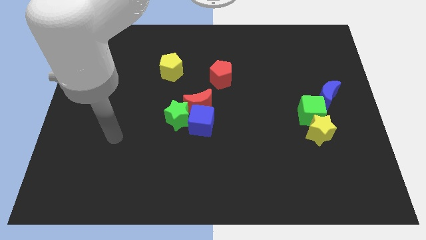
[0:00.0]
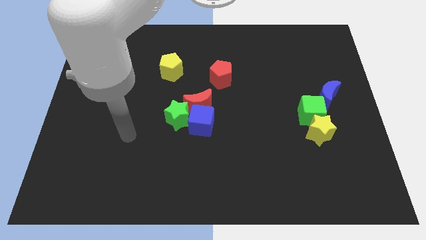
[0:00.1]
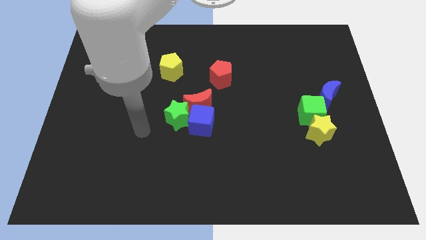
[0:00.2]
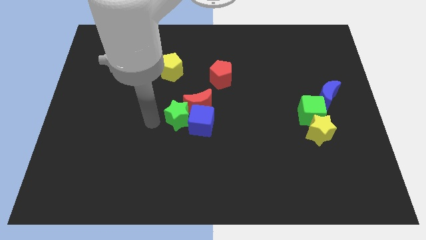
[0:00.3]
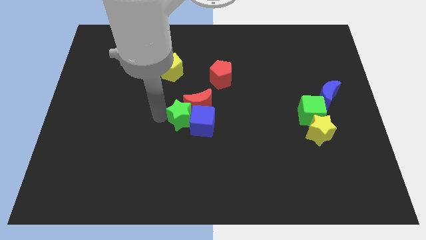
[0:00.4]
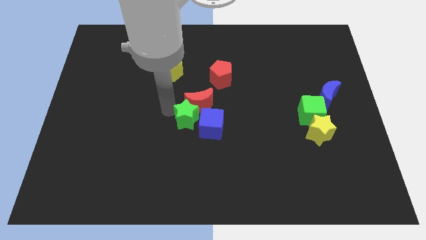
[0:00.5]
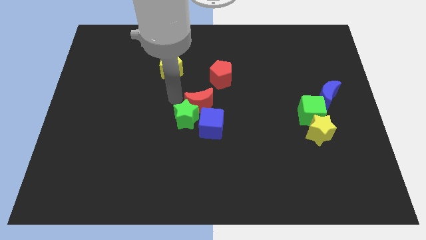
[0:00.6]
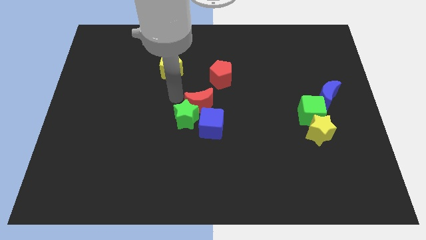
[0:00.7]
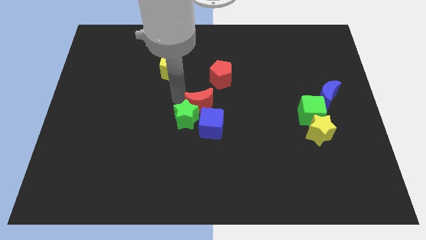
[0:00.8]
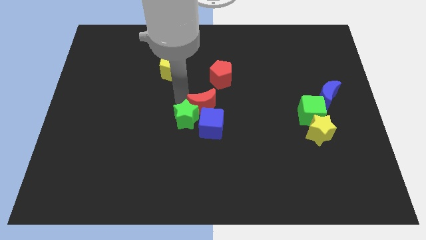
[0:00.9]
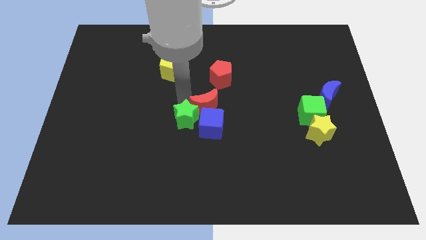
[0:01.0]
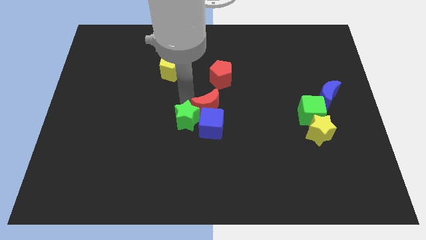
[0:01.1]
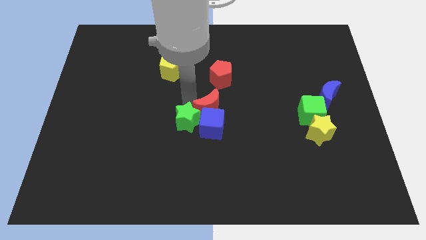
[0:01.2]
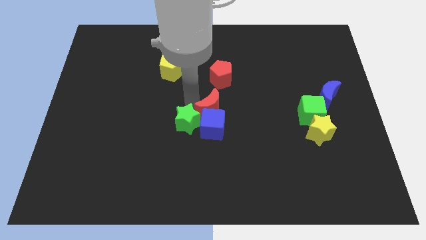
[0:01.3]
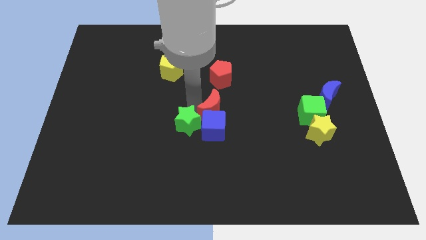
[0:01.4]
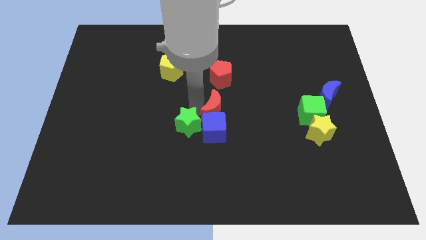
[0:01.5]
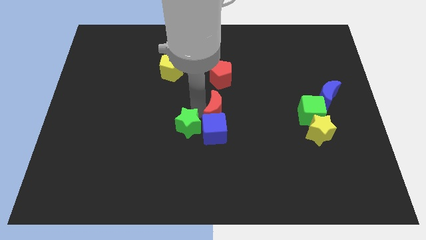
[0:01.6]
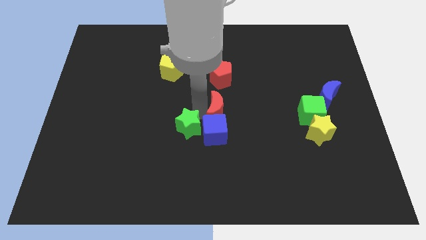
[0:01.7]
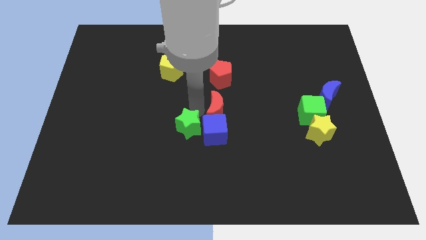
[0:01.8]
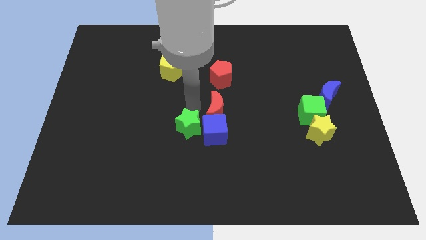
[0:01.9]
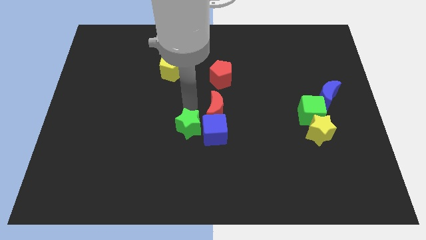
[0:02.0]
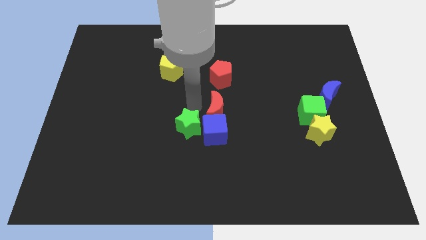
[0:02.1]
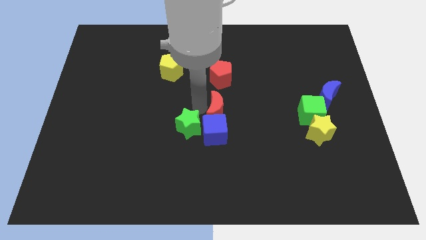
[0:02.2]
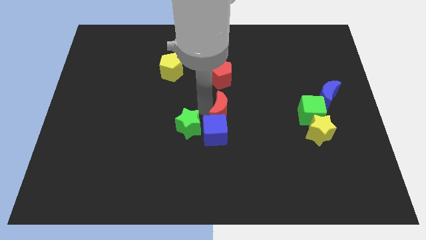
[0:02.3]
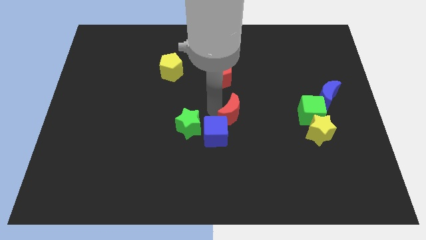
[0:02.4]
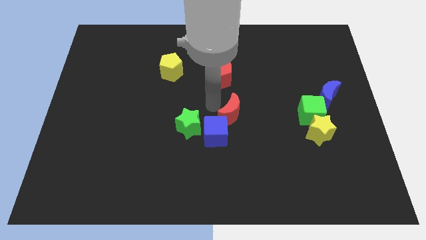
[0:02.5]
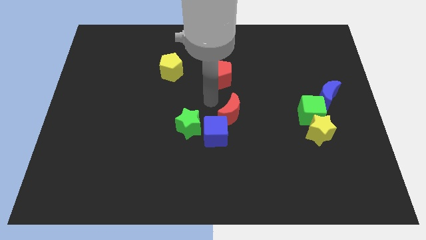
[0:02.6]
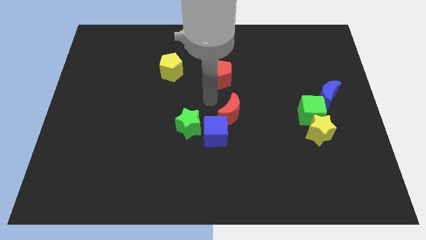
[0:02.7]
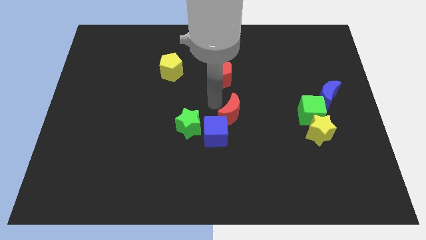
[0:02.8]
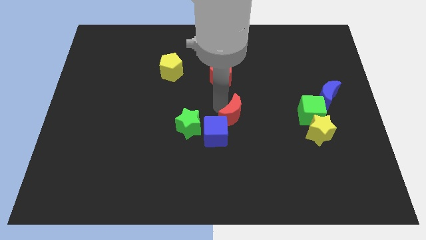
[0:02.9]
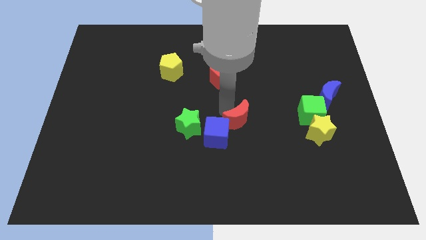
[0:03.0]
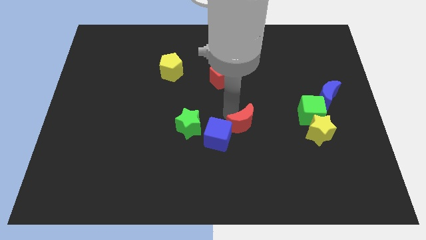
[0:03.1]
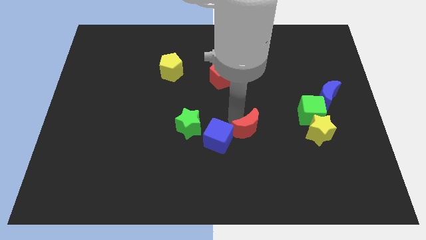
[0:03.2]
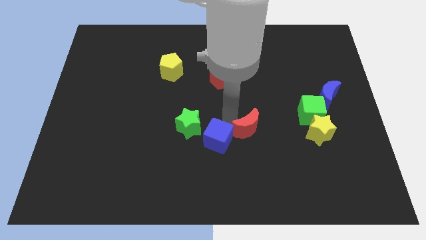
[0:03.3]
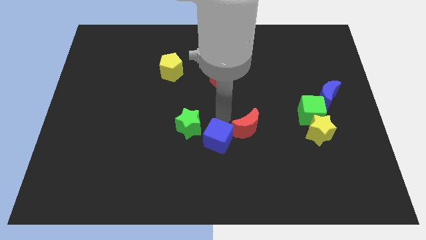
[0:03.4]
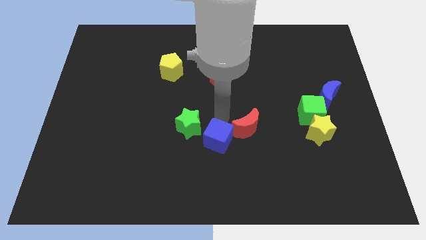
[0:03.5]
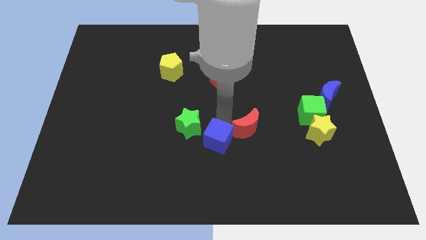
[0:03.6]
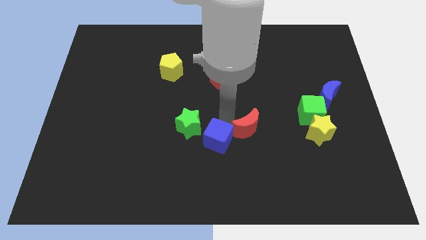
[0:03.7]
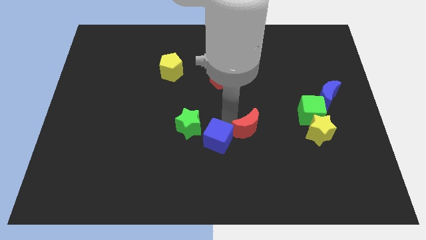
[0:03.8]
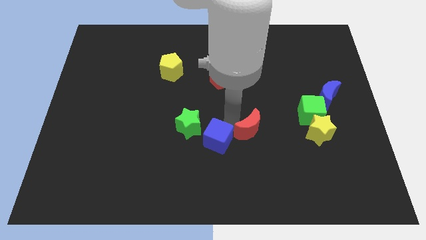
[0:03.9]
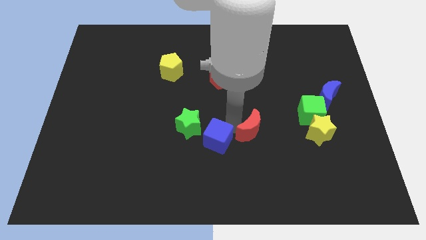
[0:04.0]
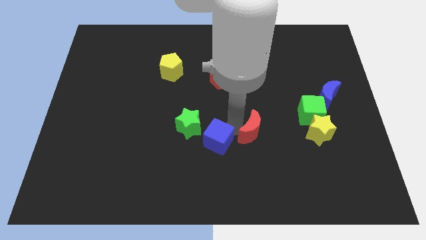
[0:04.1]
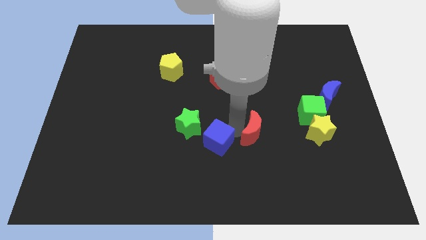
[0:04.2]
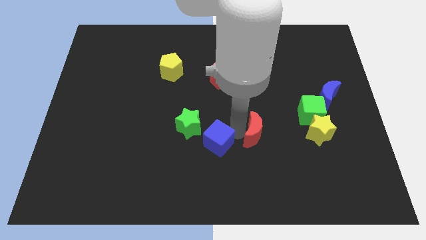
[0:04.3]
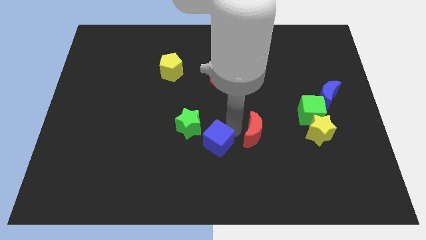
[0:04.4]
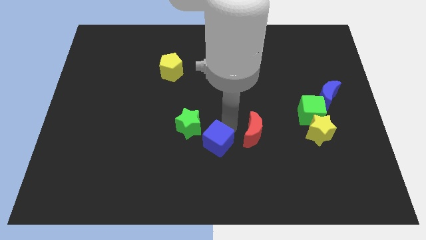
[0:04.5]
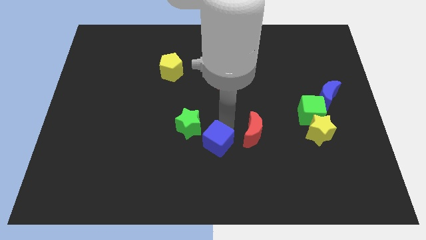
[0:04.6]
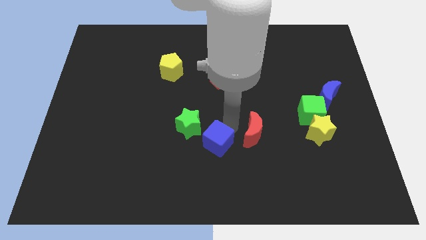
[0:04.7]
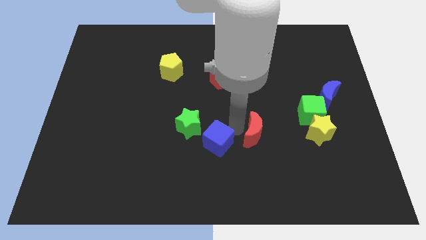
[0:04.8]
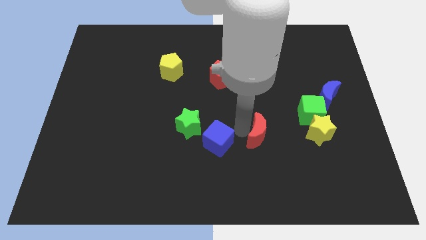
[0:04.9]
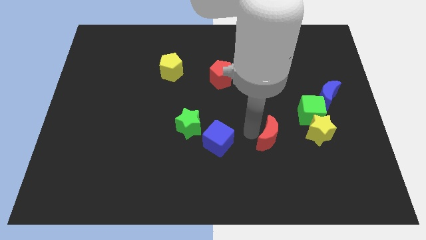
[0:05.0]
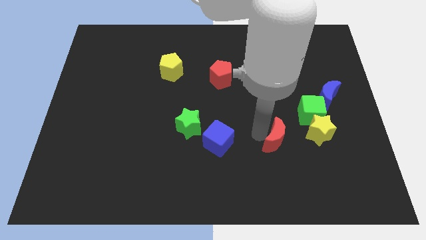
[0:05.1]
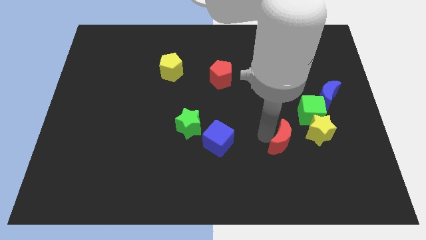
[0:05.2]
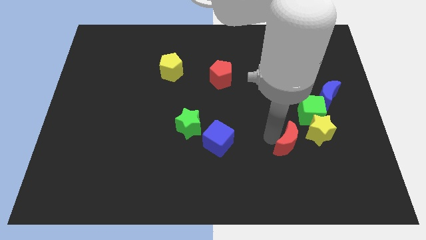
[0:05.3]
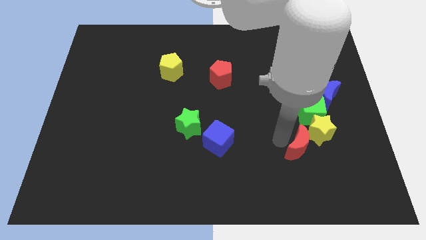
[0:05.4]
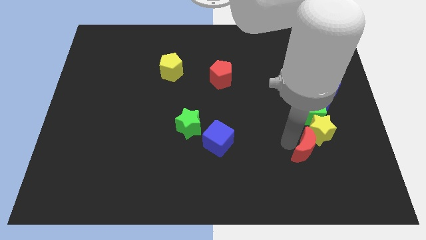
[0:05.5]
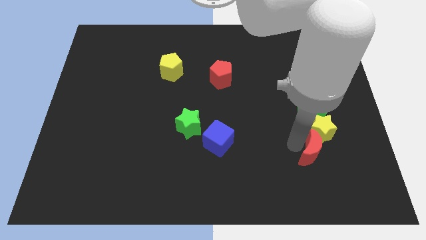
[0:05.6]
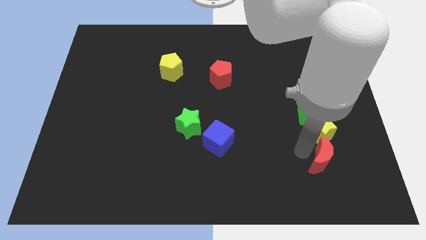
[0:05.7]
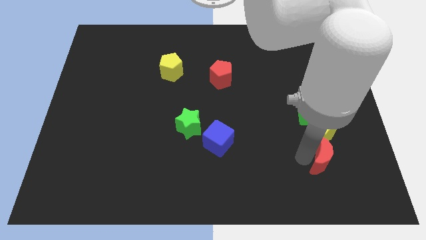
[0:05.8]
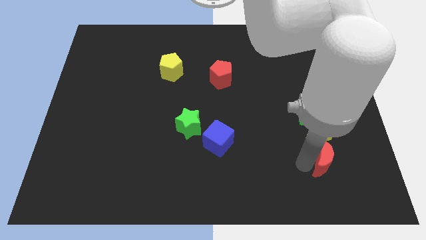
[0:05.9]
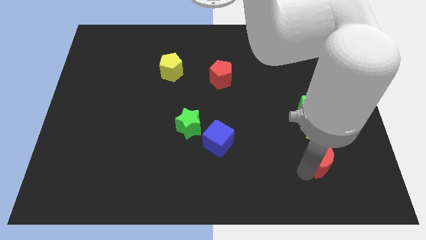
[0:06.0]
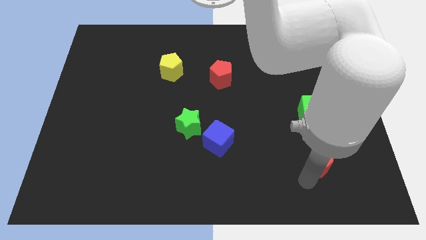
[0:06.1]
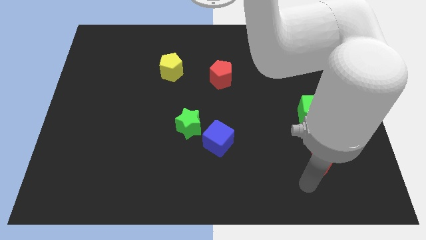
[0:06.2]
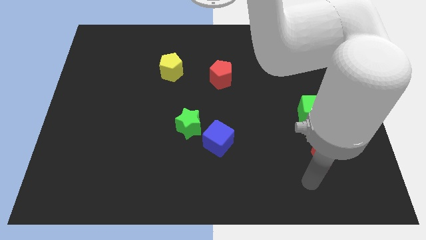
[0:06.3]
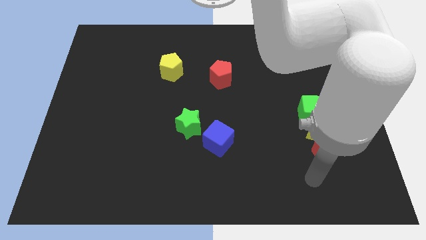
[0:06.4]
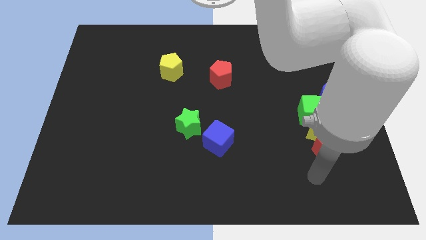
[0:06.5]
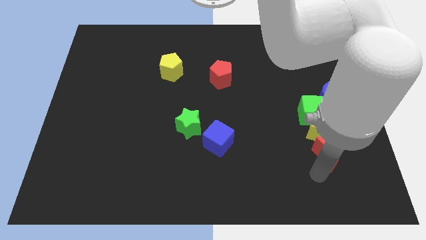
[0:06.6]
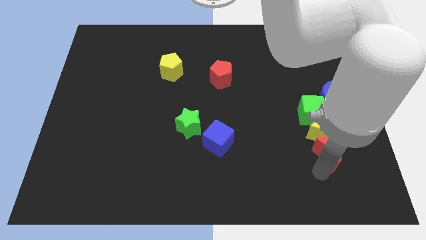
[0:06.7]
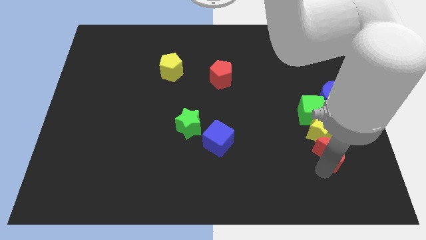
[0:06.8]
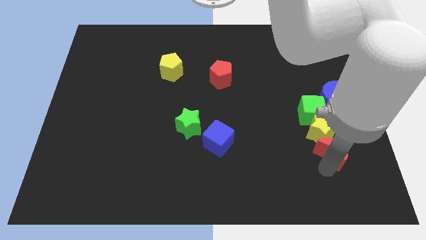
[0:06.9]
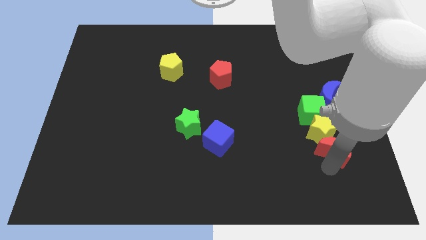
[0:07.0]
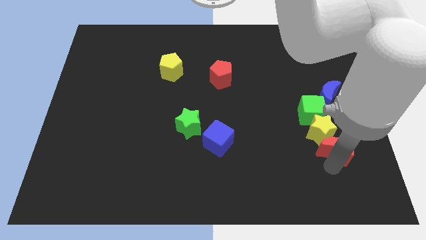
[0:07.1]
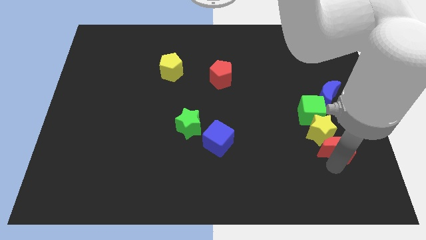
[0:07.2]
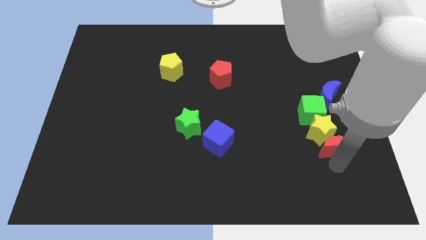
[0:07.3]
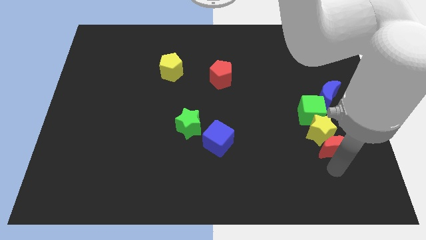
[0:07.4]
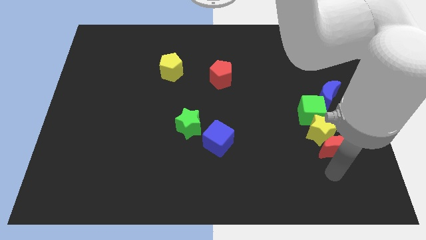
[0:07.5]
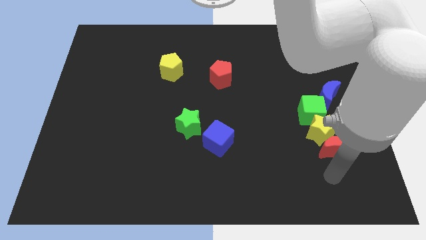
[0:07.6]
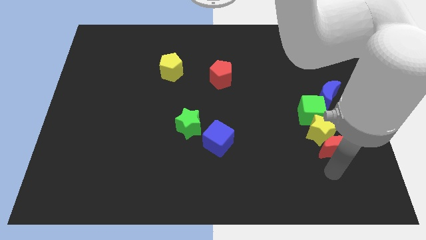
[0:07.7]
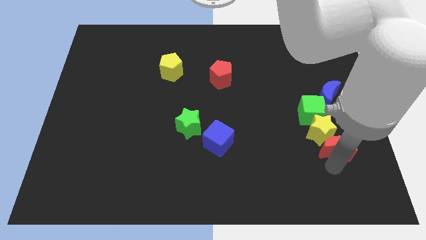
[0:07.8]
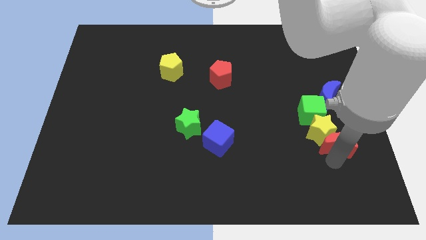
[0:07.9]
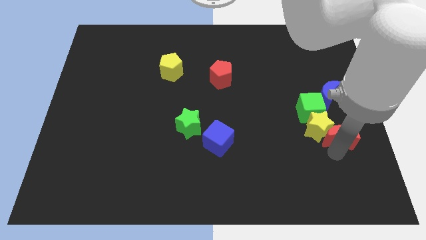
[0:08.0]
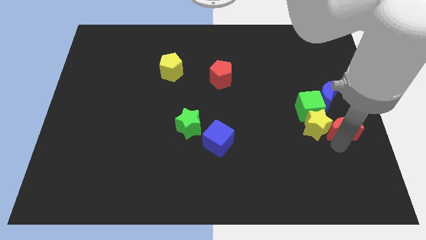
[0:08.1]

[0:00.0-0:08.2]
push the red moon to the top right of the yellow star
